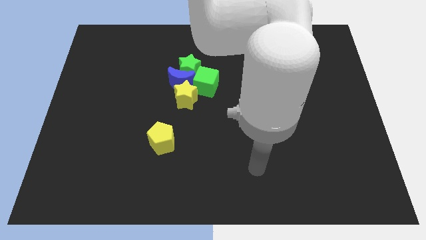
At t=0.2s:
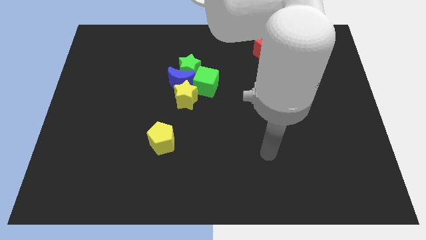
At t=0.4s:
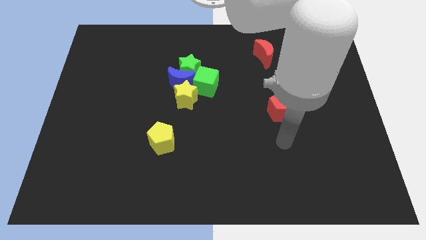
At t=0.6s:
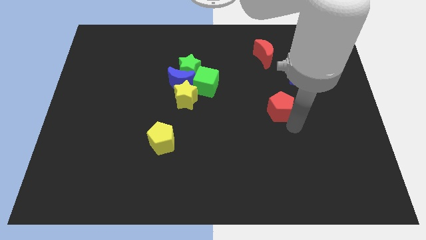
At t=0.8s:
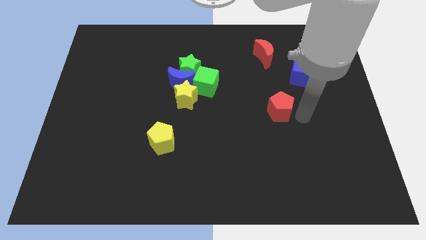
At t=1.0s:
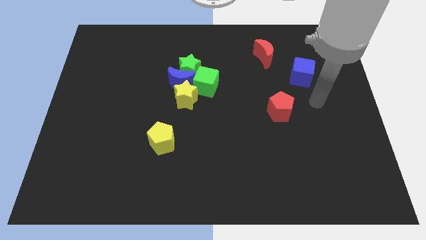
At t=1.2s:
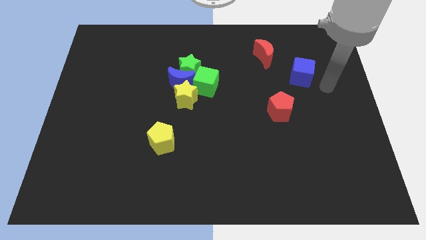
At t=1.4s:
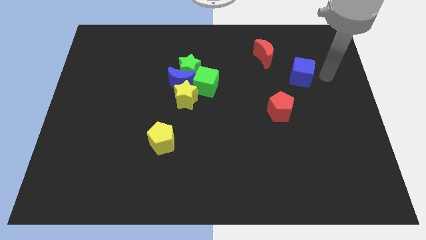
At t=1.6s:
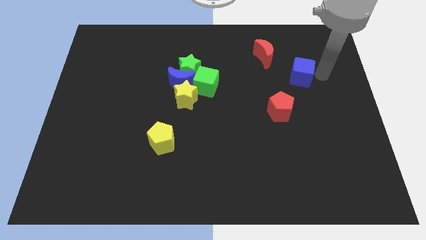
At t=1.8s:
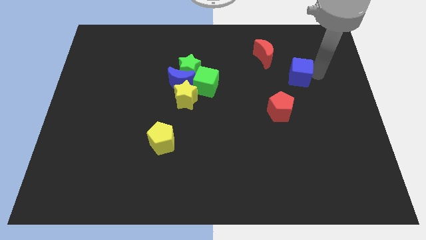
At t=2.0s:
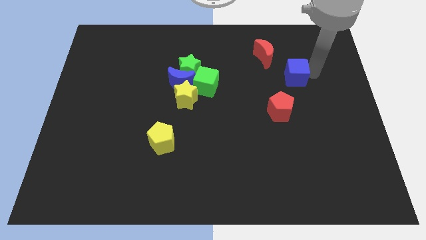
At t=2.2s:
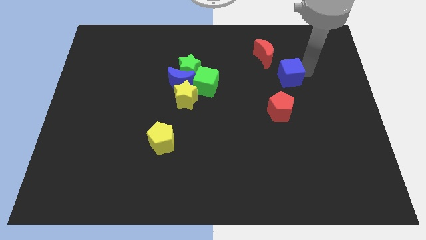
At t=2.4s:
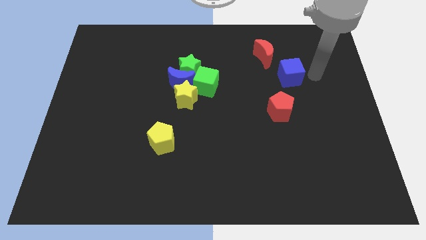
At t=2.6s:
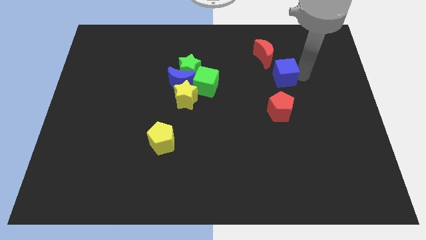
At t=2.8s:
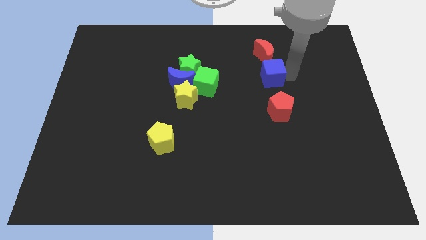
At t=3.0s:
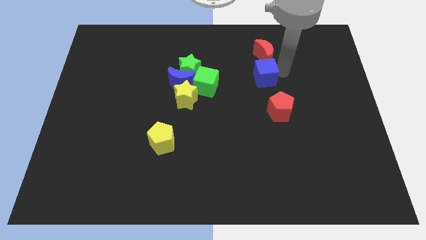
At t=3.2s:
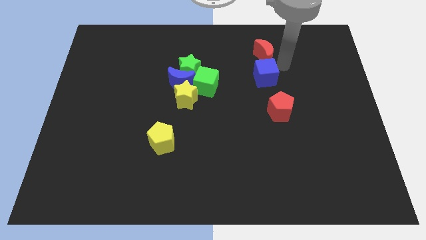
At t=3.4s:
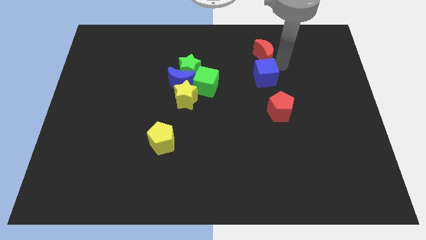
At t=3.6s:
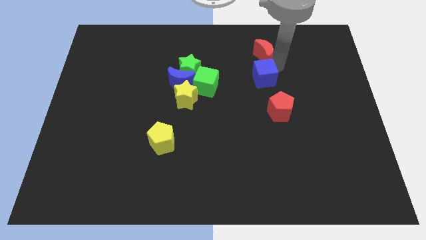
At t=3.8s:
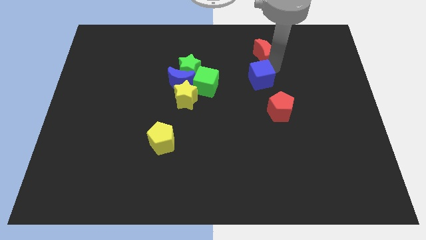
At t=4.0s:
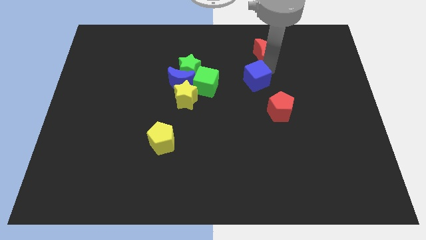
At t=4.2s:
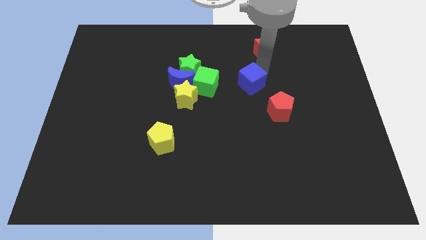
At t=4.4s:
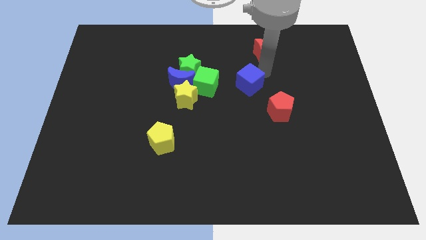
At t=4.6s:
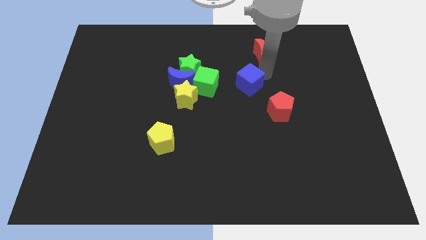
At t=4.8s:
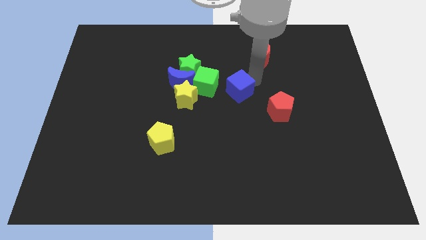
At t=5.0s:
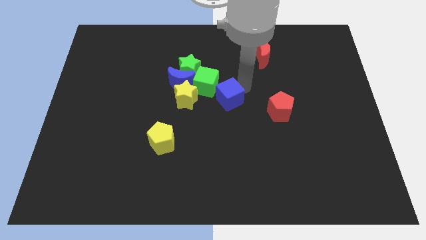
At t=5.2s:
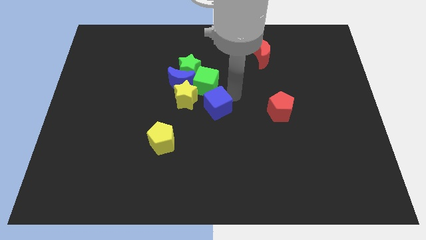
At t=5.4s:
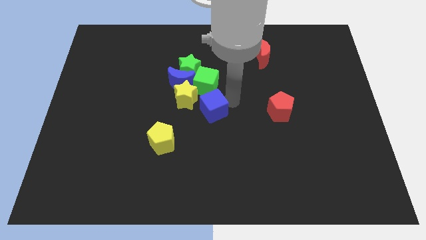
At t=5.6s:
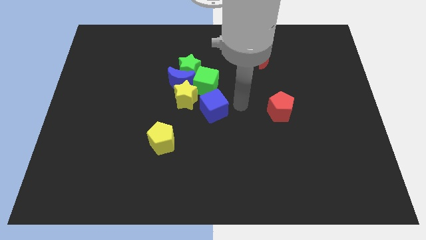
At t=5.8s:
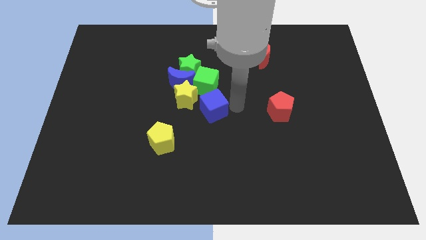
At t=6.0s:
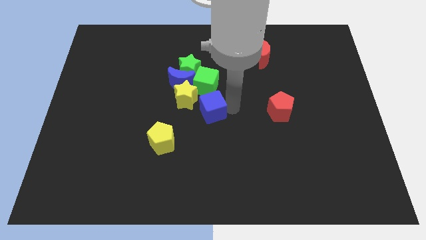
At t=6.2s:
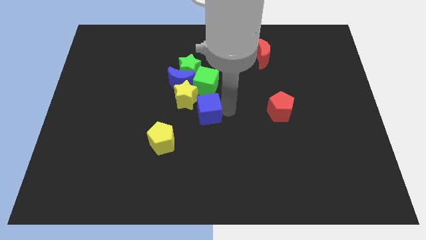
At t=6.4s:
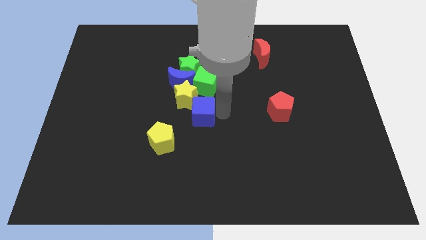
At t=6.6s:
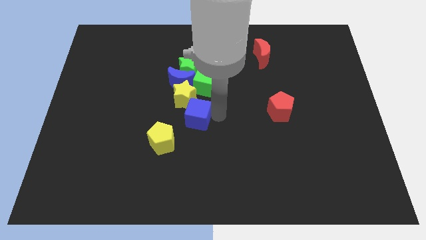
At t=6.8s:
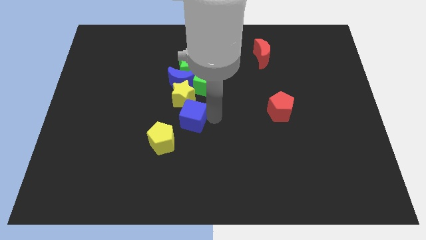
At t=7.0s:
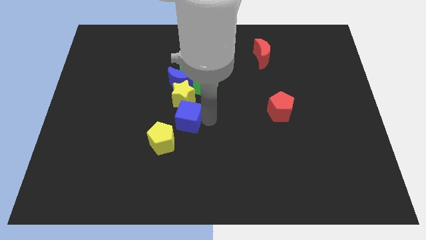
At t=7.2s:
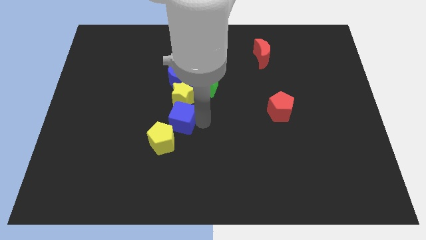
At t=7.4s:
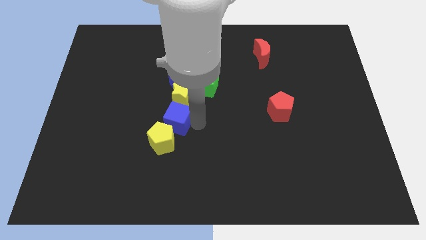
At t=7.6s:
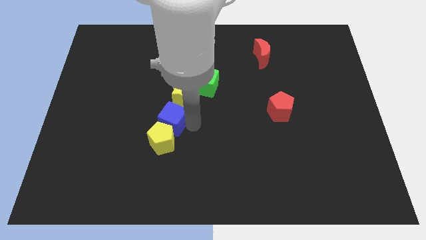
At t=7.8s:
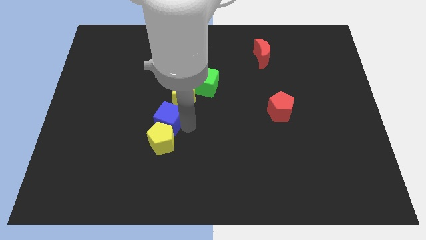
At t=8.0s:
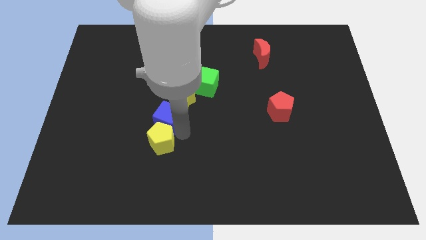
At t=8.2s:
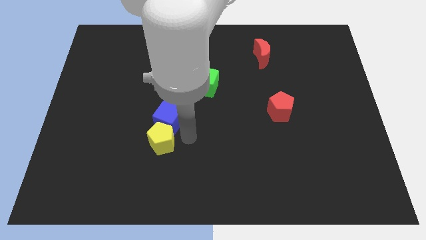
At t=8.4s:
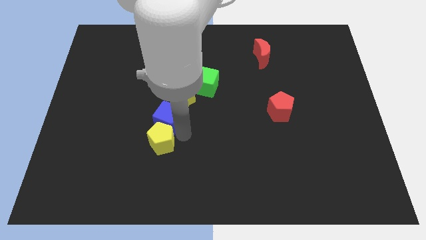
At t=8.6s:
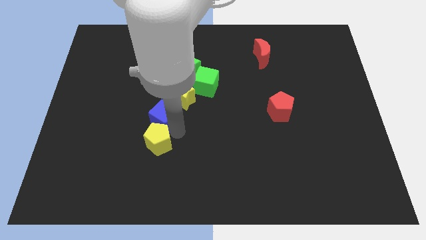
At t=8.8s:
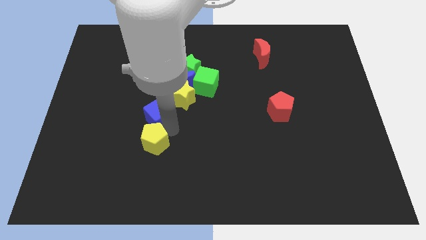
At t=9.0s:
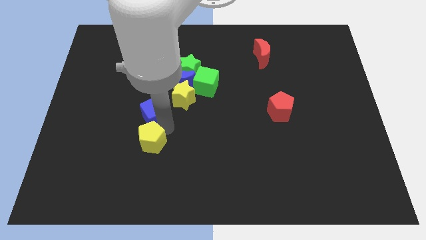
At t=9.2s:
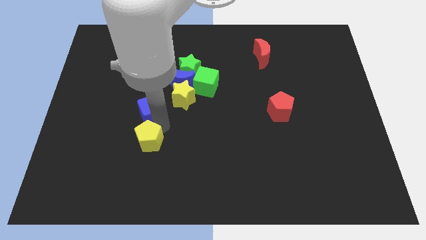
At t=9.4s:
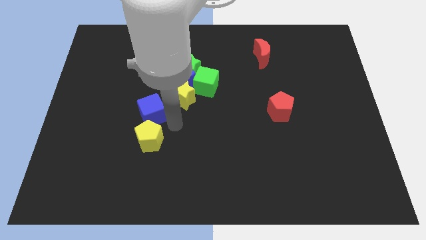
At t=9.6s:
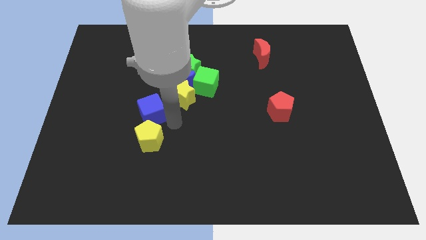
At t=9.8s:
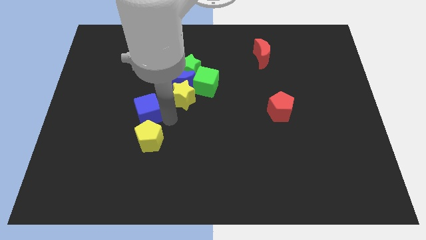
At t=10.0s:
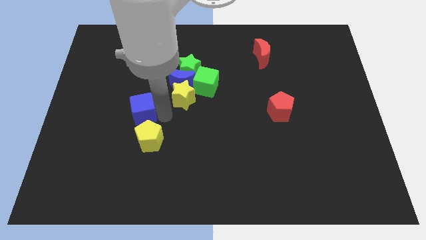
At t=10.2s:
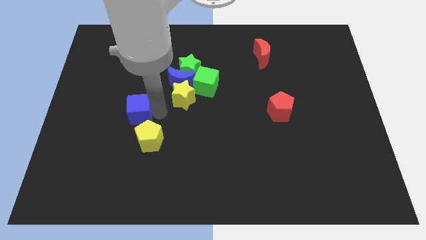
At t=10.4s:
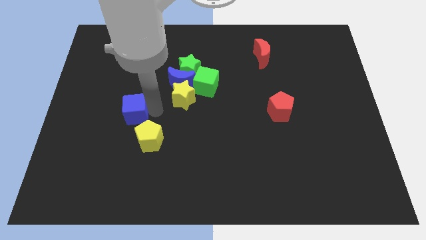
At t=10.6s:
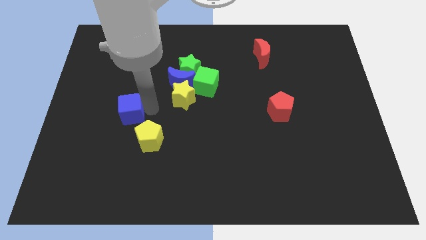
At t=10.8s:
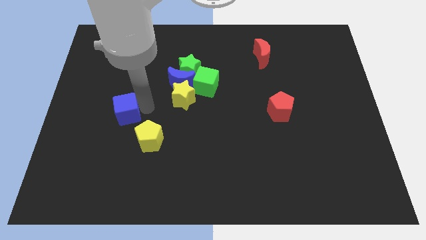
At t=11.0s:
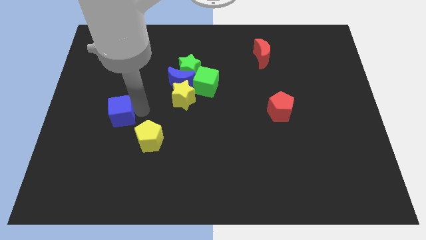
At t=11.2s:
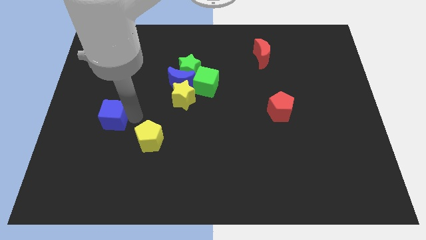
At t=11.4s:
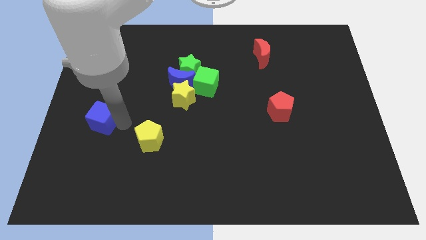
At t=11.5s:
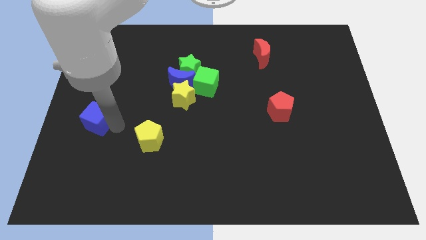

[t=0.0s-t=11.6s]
push the blue cube to the left side

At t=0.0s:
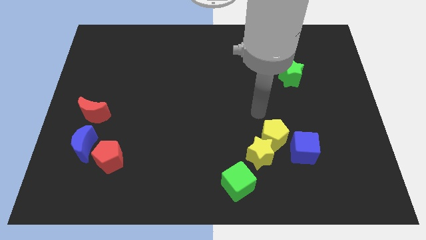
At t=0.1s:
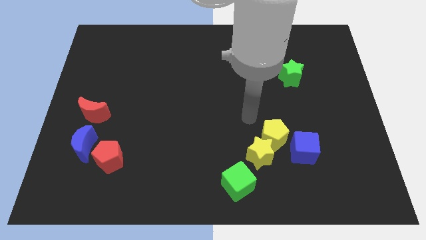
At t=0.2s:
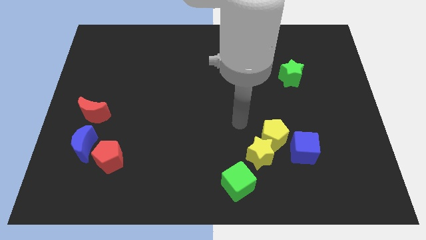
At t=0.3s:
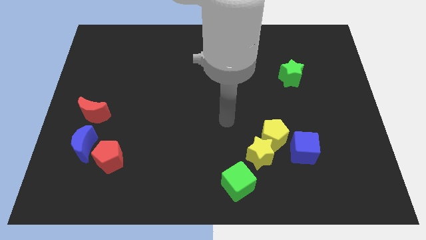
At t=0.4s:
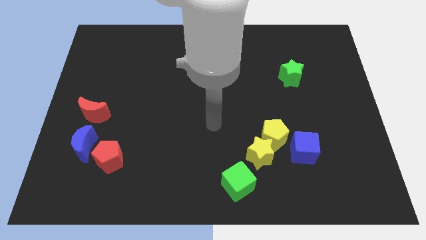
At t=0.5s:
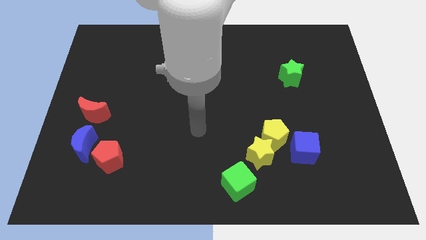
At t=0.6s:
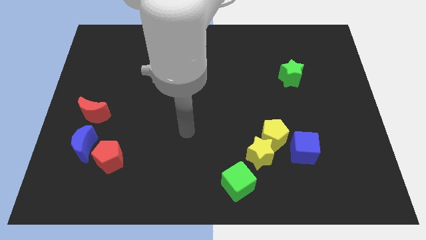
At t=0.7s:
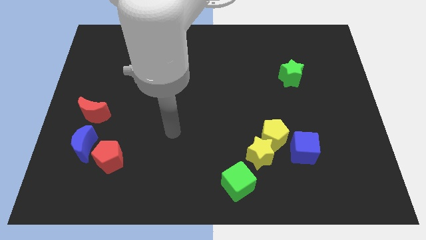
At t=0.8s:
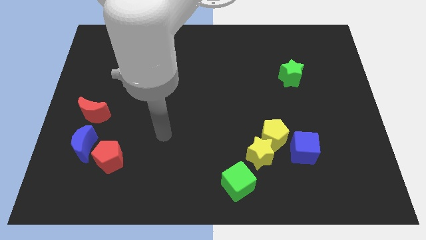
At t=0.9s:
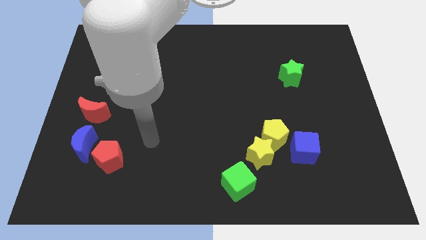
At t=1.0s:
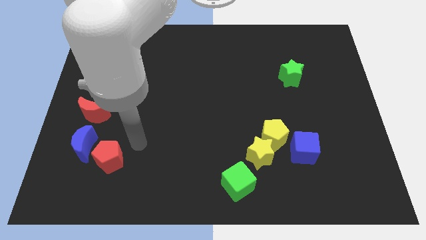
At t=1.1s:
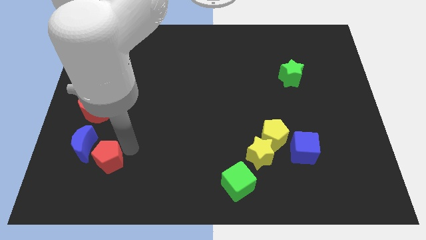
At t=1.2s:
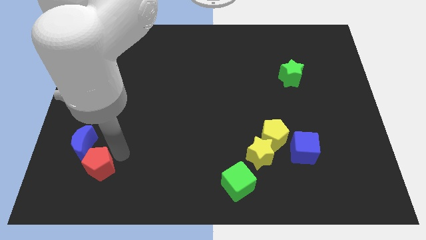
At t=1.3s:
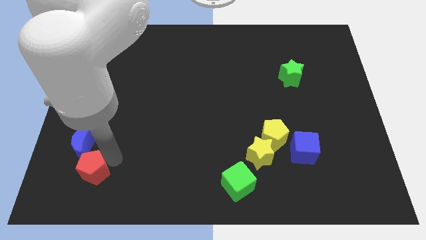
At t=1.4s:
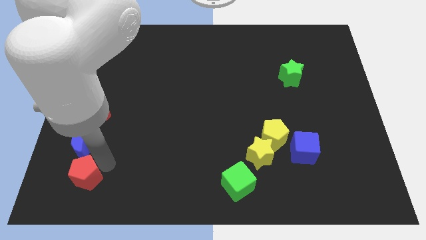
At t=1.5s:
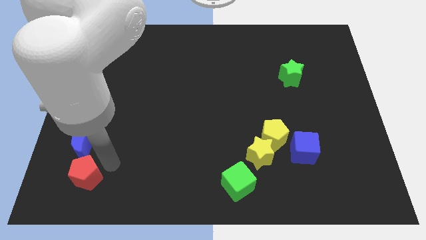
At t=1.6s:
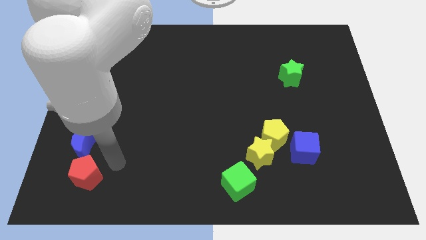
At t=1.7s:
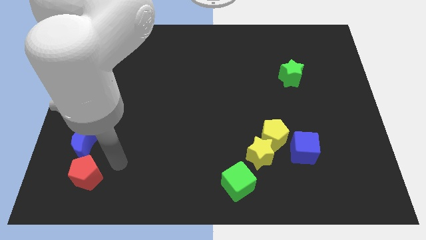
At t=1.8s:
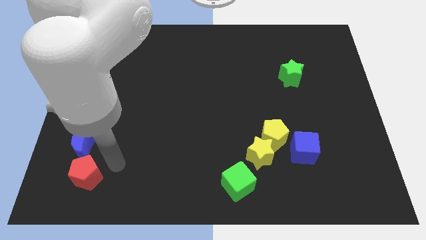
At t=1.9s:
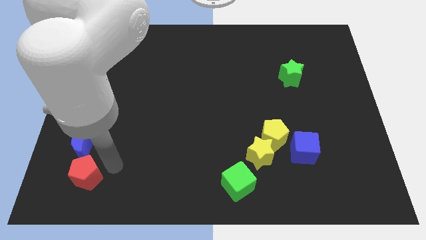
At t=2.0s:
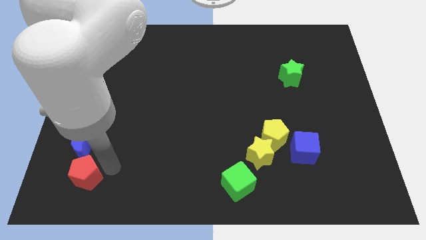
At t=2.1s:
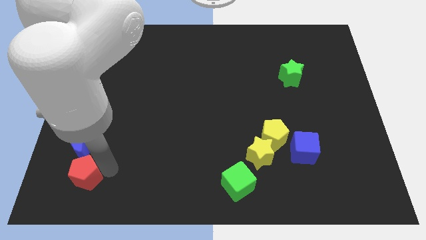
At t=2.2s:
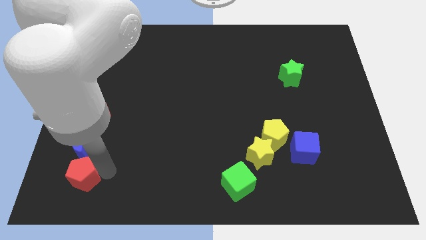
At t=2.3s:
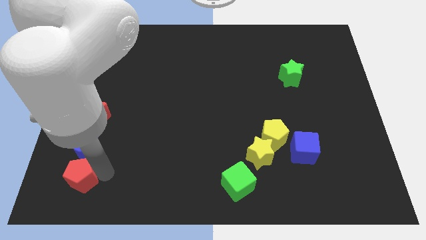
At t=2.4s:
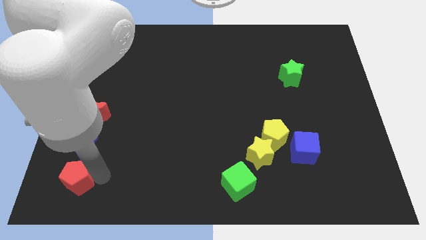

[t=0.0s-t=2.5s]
push the red pentagon to the bottom left
